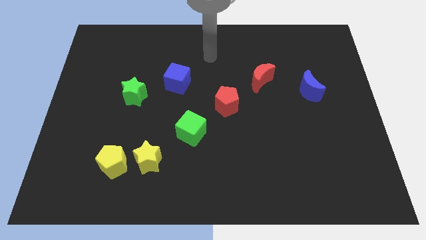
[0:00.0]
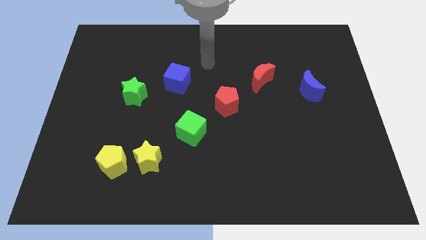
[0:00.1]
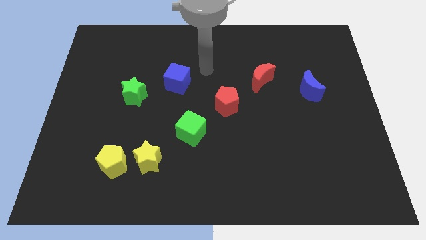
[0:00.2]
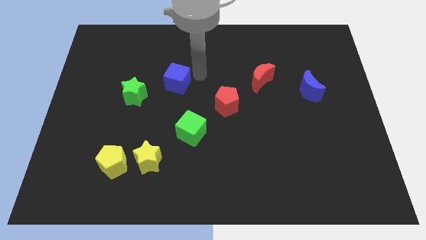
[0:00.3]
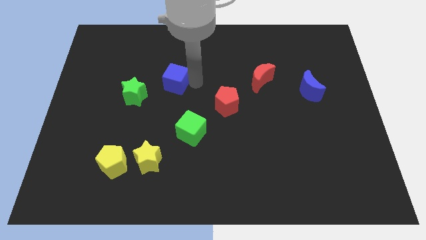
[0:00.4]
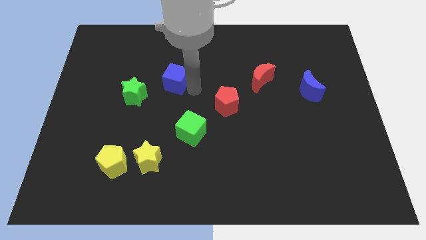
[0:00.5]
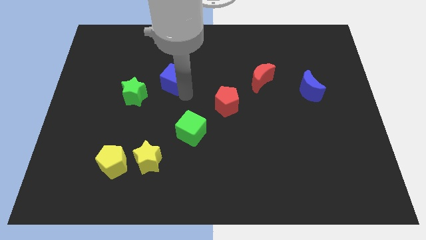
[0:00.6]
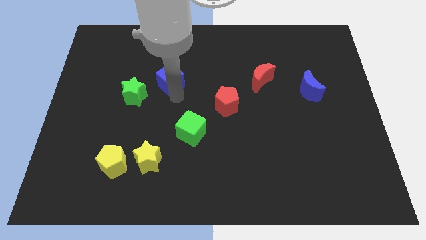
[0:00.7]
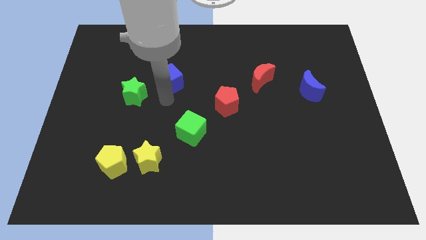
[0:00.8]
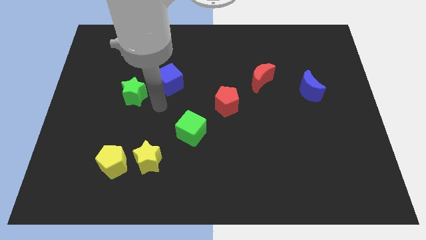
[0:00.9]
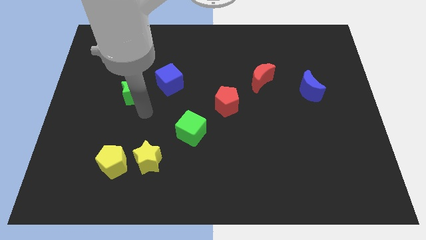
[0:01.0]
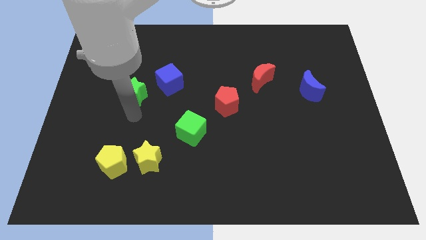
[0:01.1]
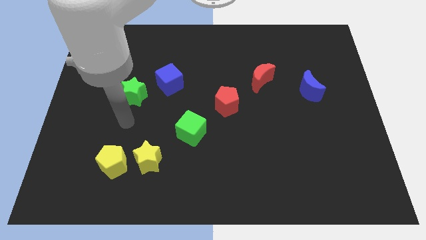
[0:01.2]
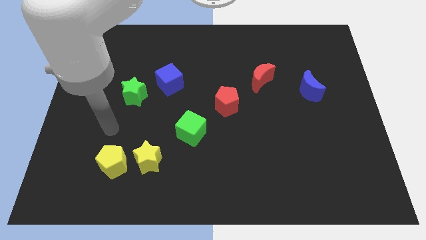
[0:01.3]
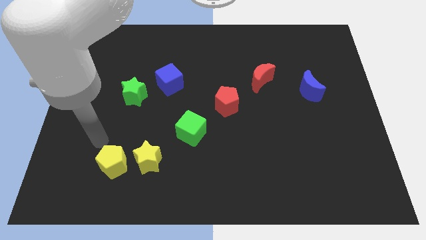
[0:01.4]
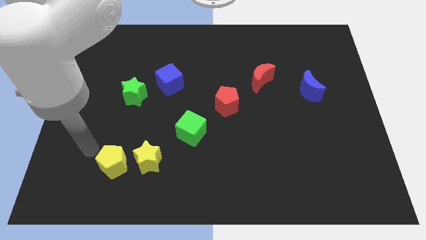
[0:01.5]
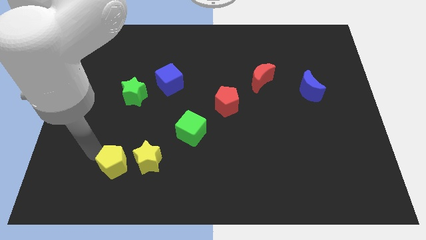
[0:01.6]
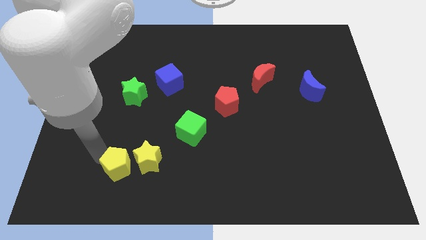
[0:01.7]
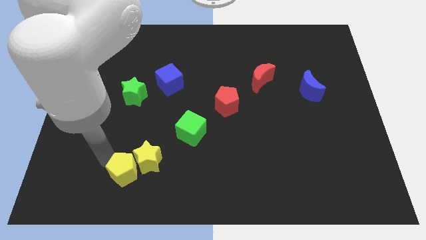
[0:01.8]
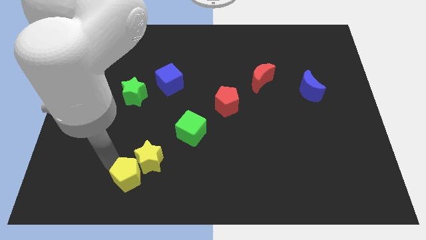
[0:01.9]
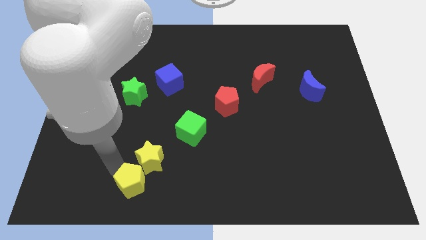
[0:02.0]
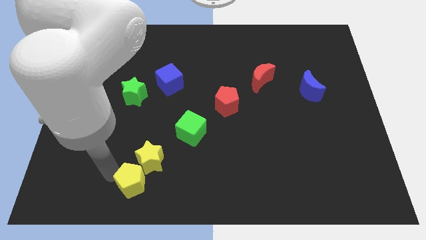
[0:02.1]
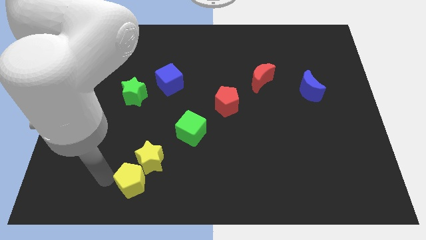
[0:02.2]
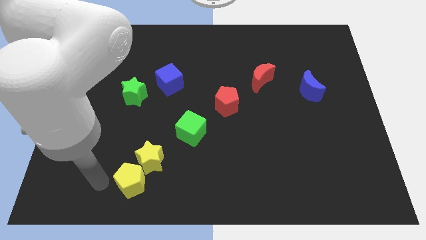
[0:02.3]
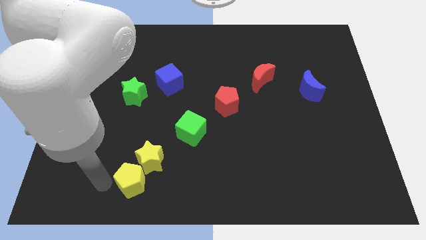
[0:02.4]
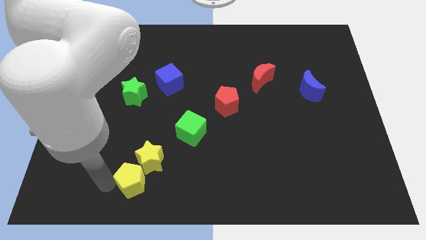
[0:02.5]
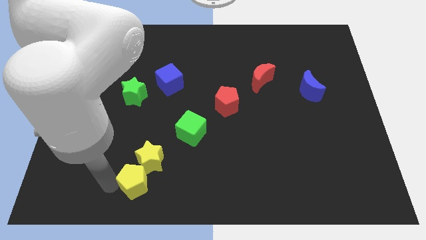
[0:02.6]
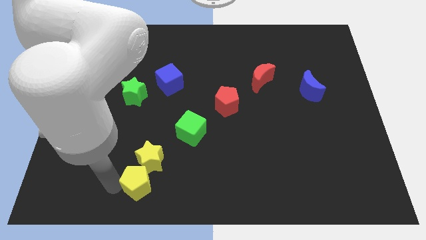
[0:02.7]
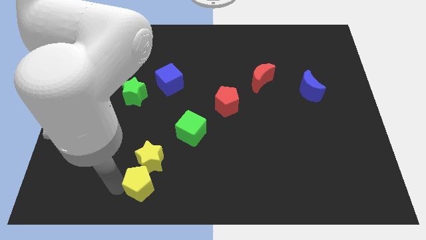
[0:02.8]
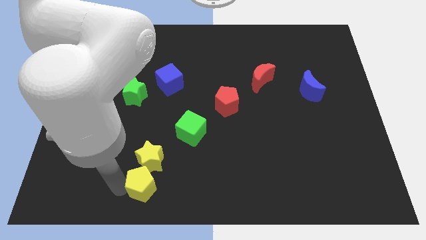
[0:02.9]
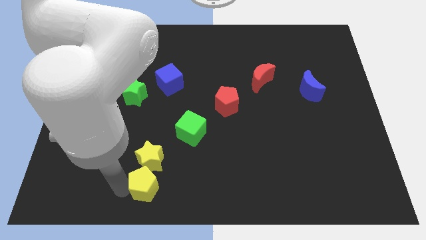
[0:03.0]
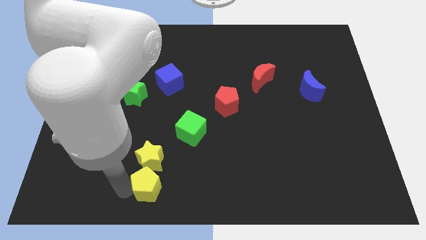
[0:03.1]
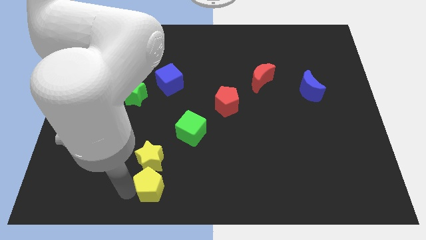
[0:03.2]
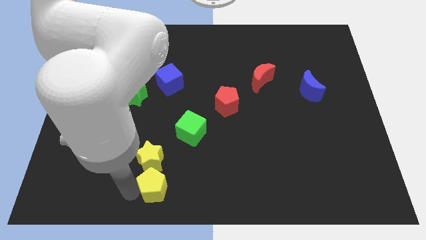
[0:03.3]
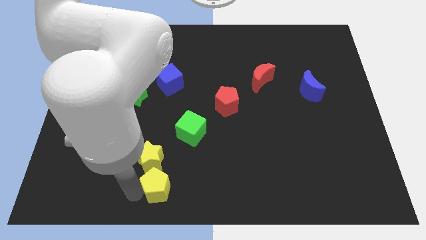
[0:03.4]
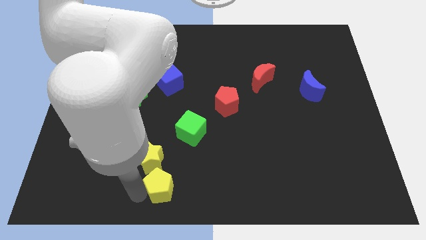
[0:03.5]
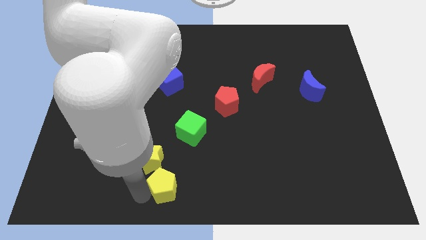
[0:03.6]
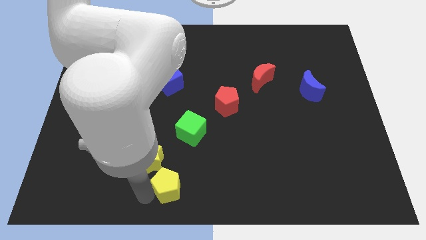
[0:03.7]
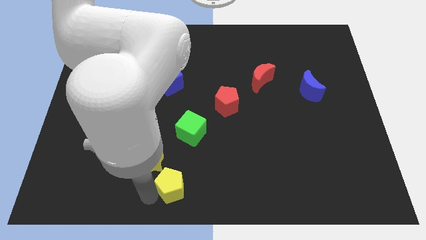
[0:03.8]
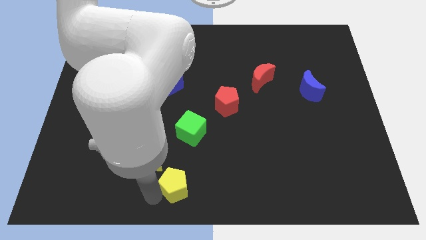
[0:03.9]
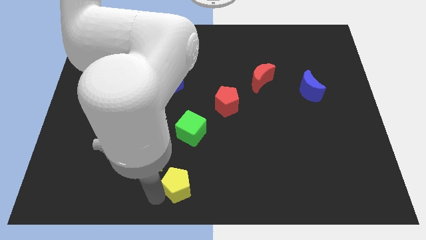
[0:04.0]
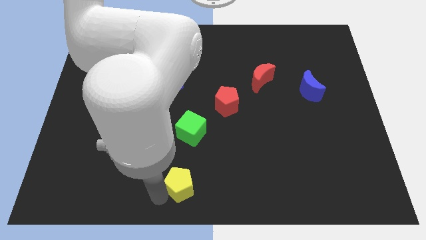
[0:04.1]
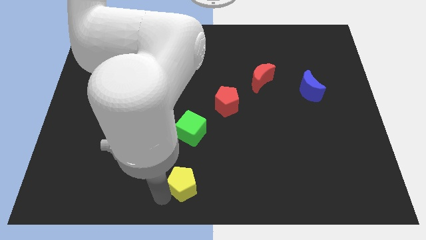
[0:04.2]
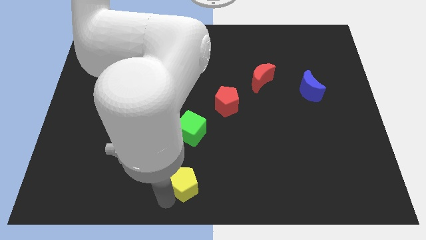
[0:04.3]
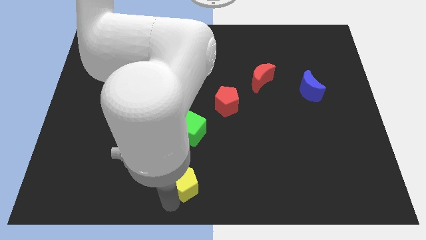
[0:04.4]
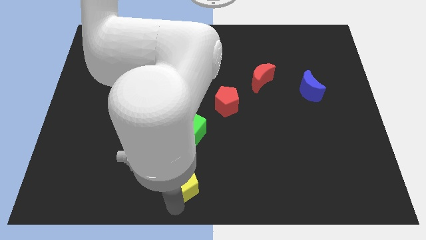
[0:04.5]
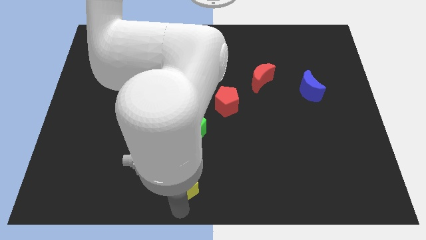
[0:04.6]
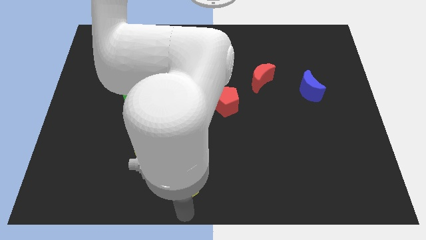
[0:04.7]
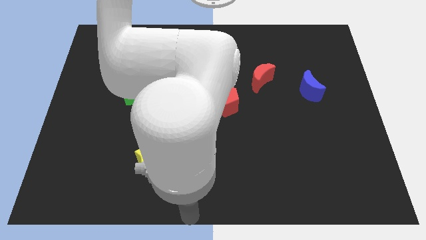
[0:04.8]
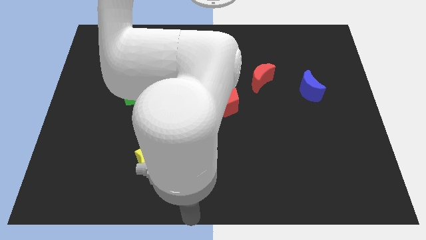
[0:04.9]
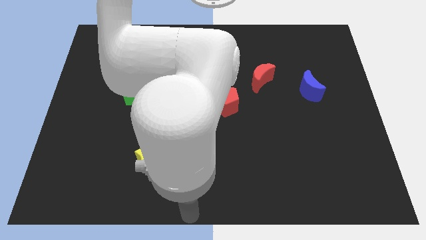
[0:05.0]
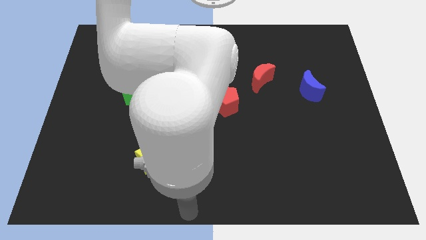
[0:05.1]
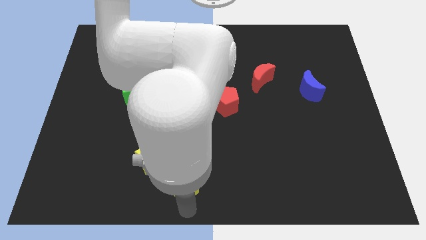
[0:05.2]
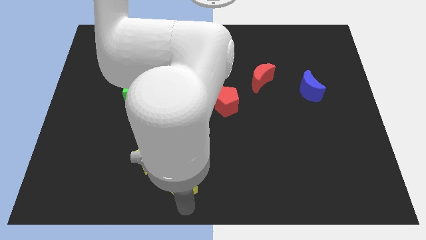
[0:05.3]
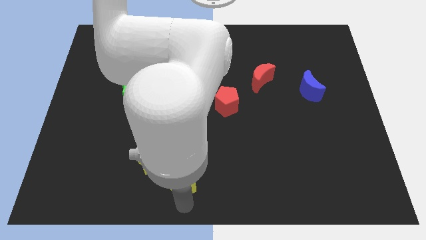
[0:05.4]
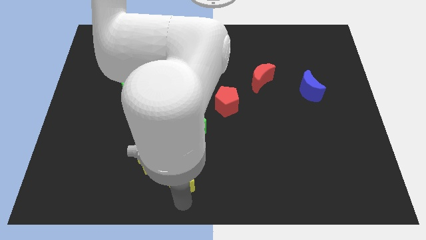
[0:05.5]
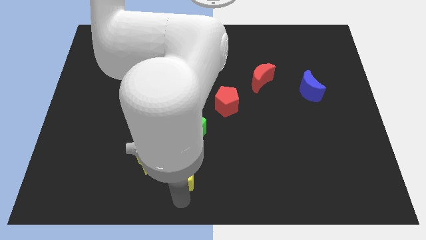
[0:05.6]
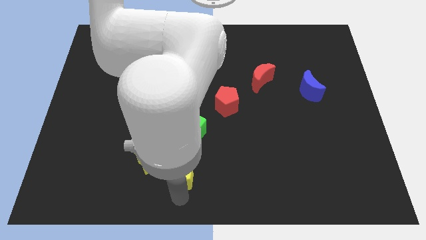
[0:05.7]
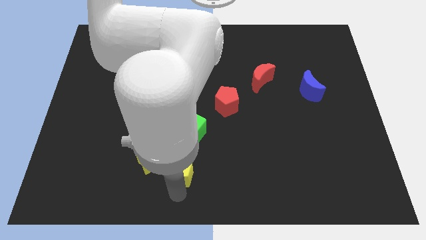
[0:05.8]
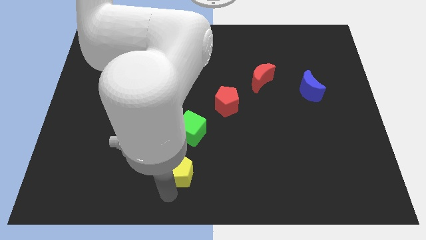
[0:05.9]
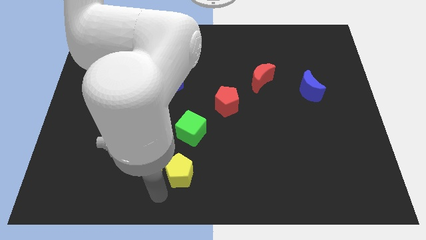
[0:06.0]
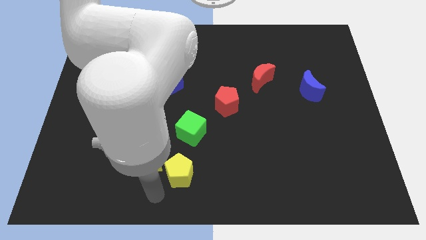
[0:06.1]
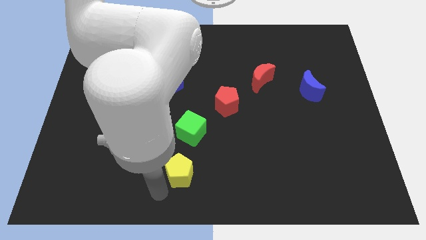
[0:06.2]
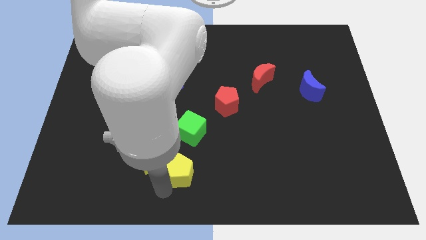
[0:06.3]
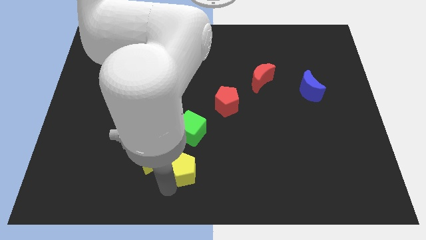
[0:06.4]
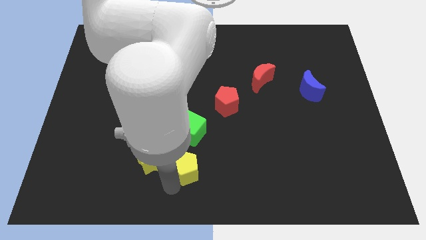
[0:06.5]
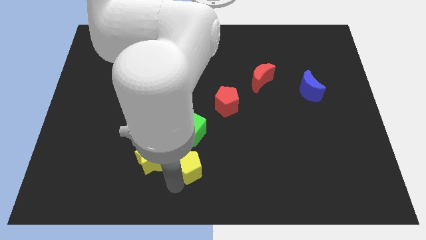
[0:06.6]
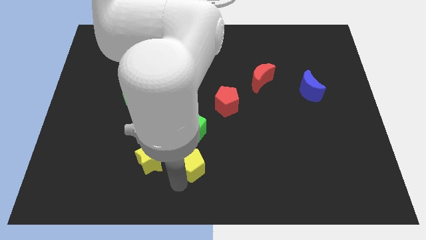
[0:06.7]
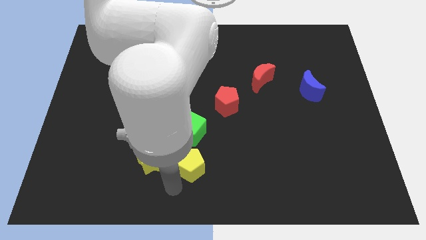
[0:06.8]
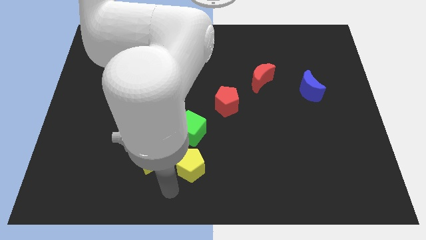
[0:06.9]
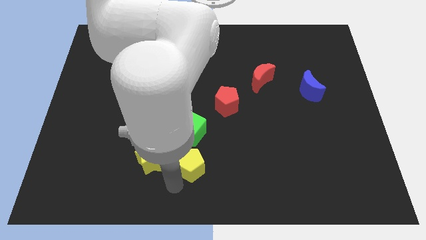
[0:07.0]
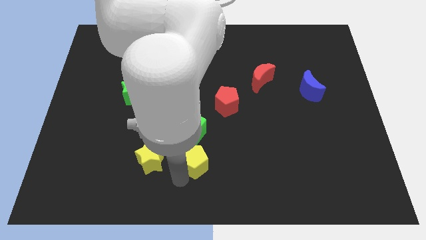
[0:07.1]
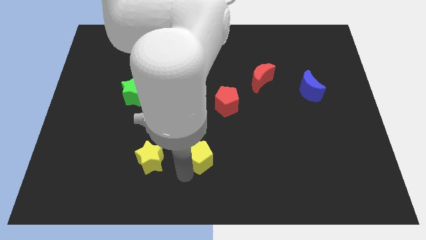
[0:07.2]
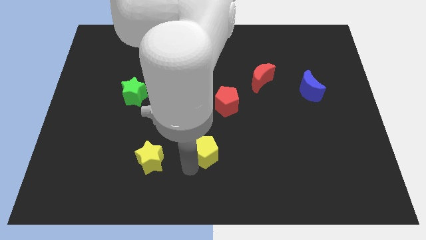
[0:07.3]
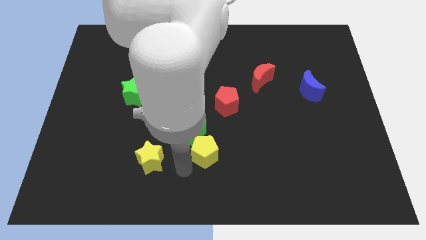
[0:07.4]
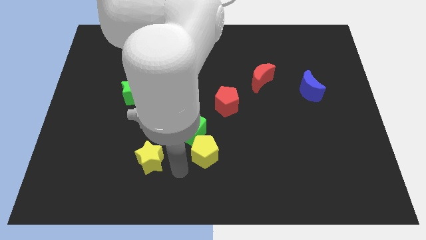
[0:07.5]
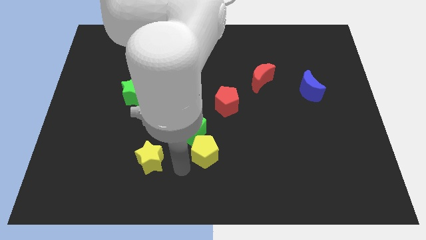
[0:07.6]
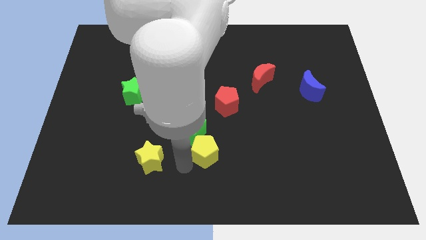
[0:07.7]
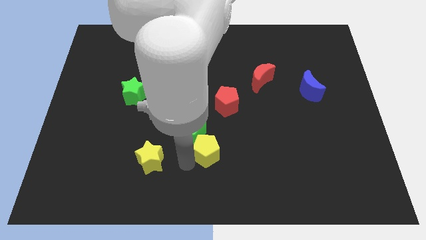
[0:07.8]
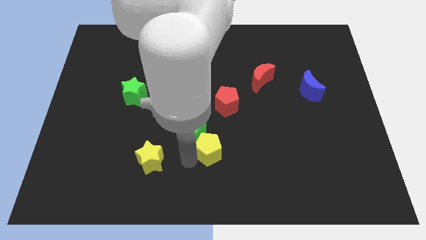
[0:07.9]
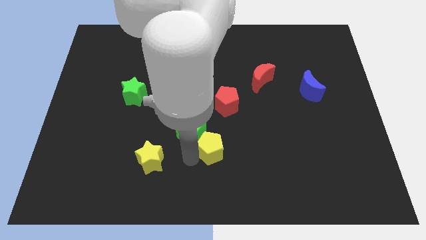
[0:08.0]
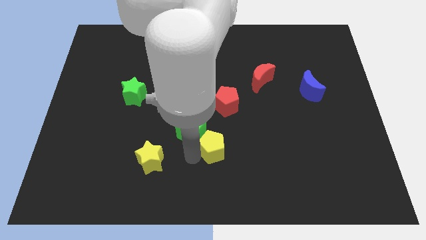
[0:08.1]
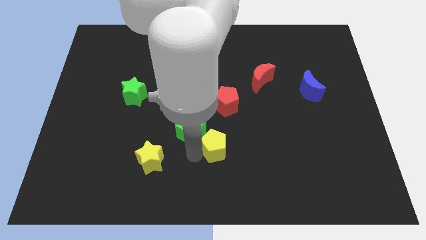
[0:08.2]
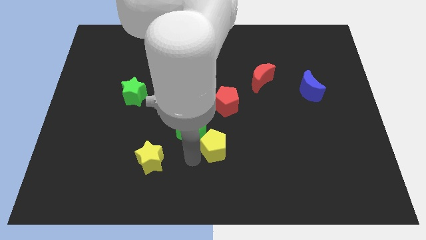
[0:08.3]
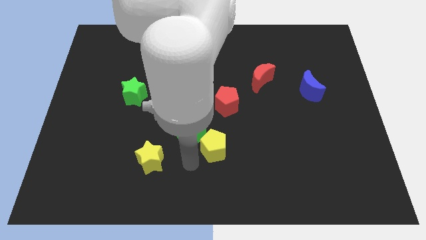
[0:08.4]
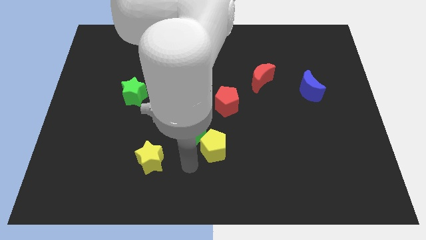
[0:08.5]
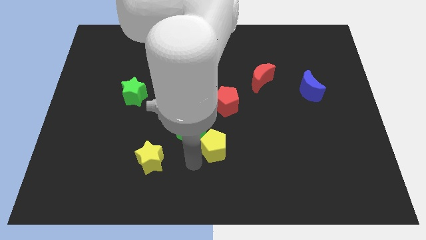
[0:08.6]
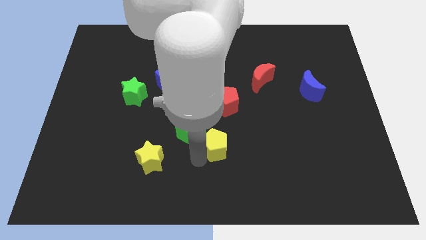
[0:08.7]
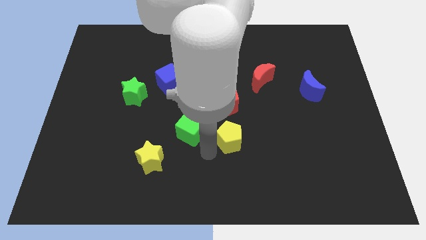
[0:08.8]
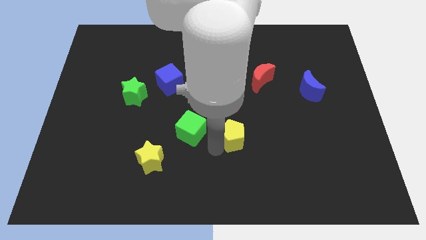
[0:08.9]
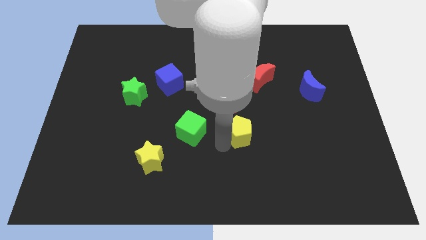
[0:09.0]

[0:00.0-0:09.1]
slide the yellow pentagon to the bottom right side of the red pentagon
